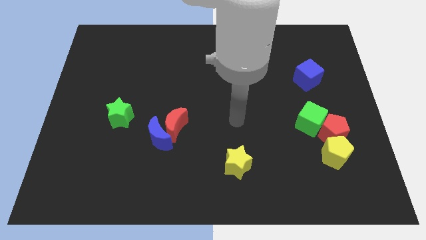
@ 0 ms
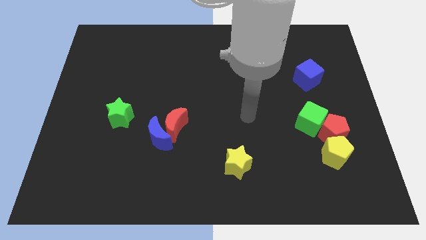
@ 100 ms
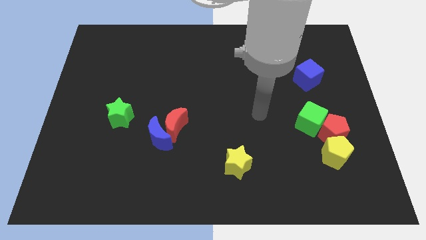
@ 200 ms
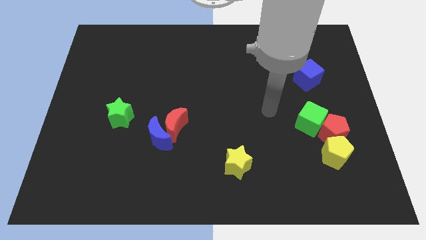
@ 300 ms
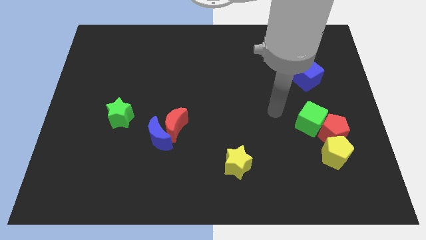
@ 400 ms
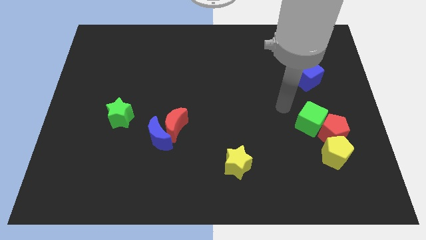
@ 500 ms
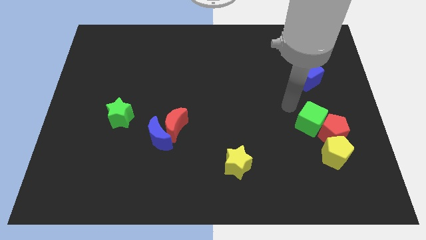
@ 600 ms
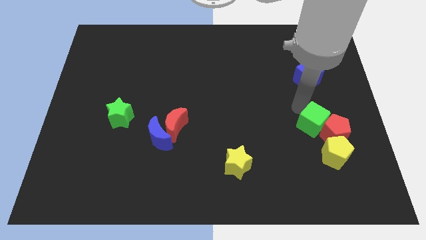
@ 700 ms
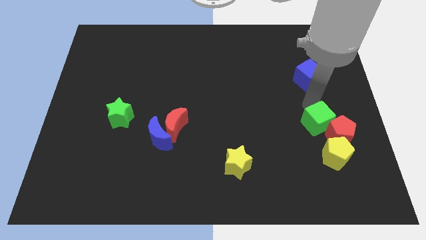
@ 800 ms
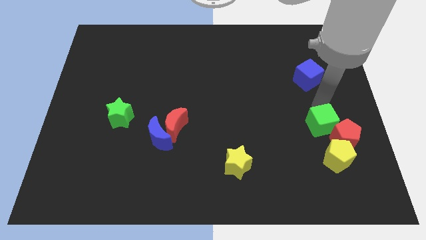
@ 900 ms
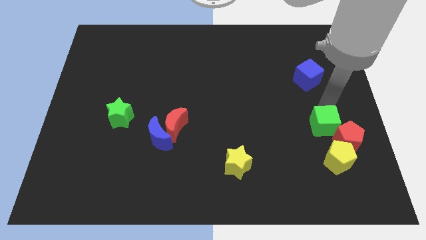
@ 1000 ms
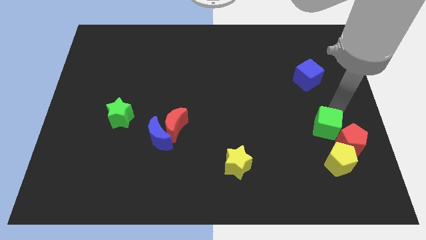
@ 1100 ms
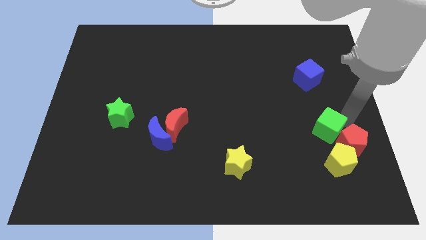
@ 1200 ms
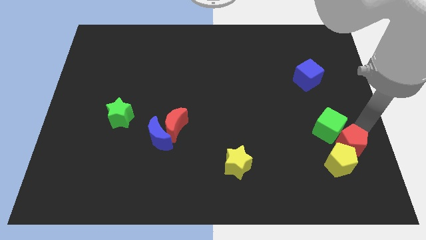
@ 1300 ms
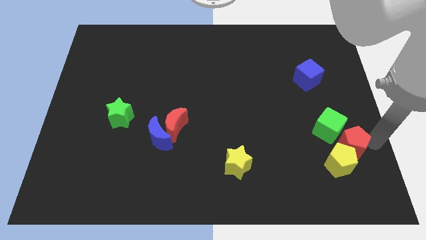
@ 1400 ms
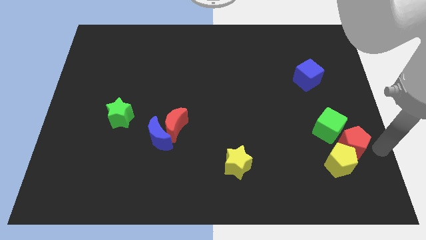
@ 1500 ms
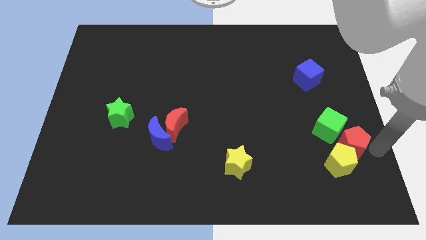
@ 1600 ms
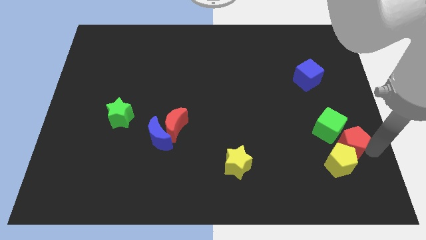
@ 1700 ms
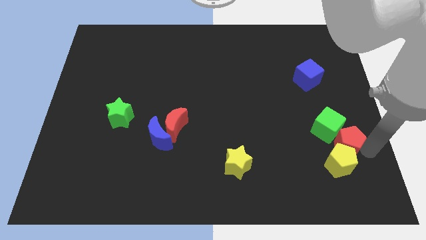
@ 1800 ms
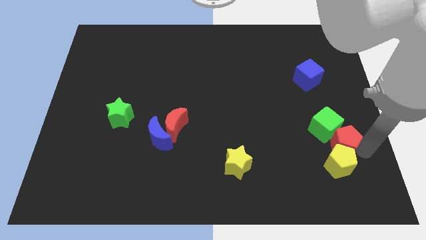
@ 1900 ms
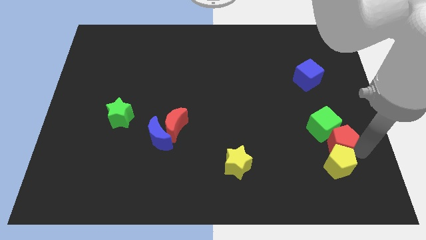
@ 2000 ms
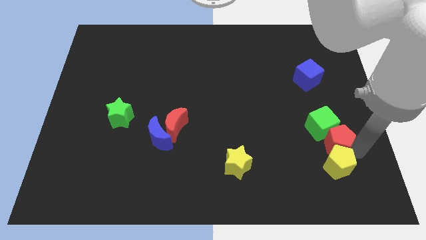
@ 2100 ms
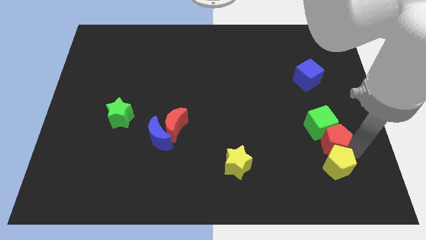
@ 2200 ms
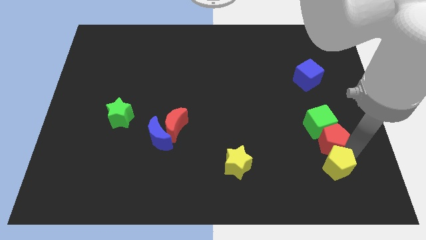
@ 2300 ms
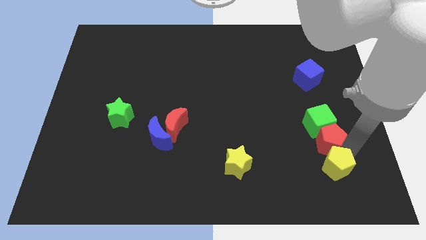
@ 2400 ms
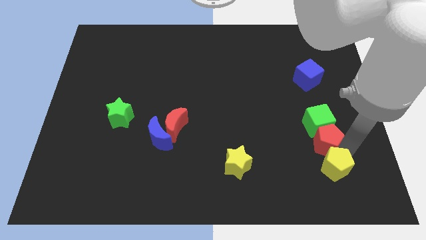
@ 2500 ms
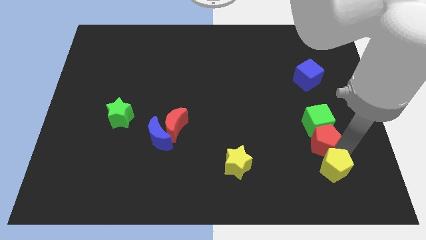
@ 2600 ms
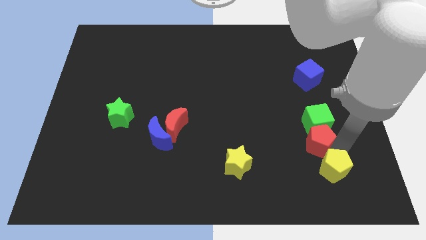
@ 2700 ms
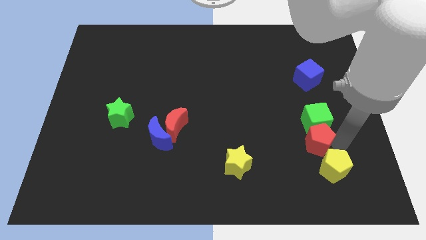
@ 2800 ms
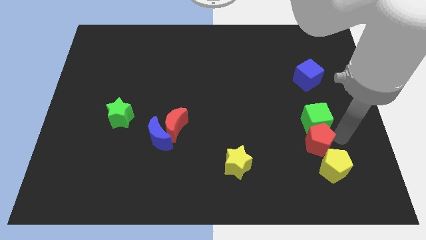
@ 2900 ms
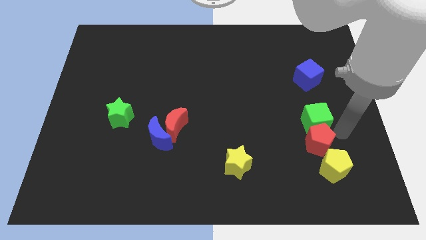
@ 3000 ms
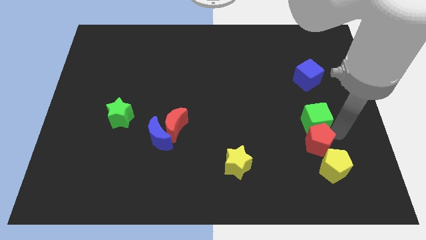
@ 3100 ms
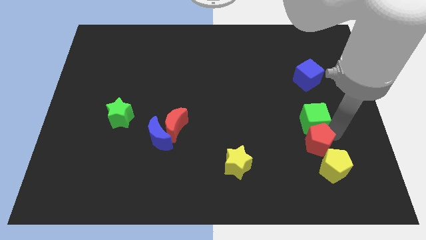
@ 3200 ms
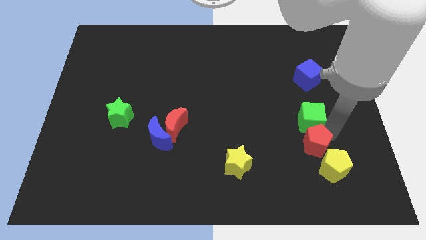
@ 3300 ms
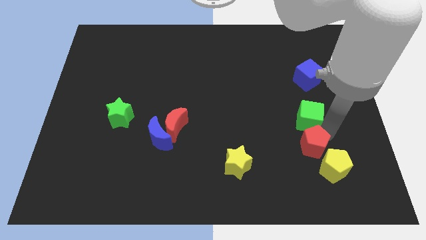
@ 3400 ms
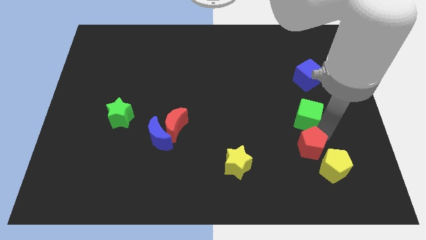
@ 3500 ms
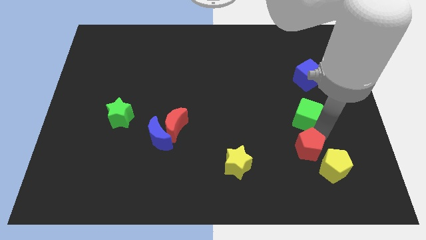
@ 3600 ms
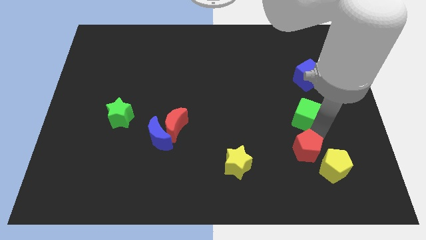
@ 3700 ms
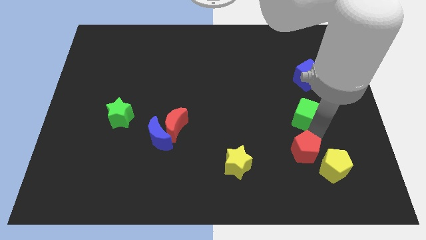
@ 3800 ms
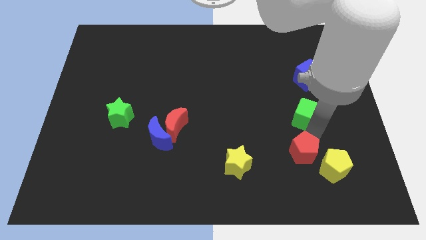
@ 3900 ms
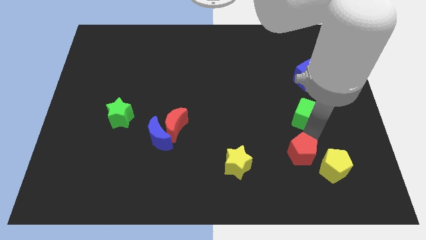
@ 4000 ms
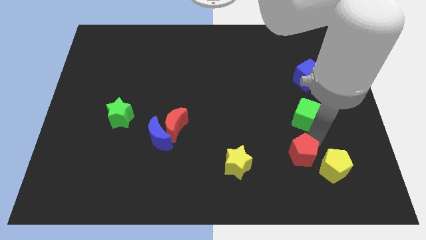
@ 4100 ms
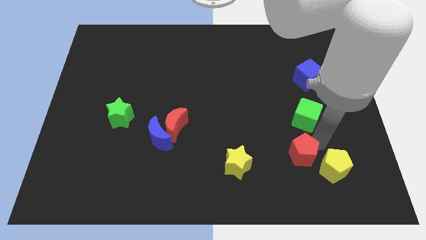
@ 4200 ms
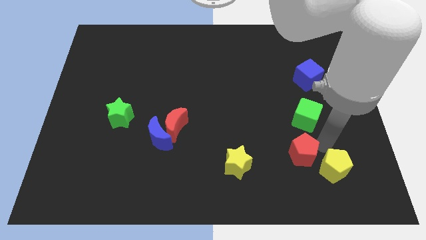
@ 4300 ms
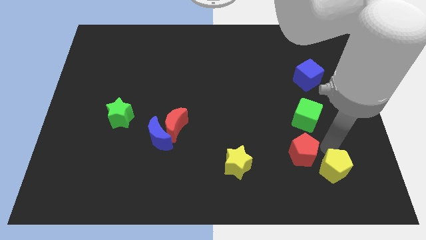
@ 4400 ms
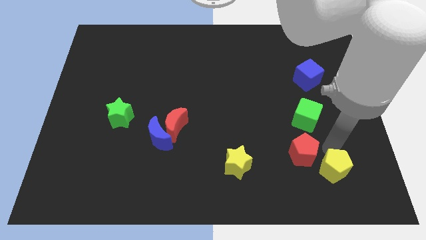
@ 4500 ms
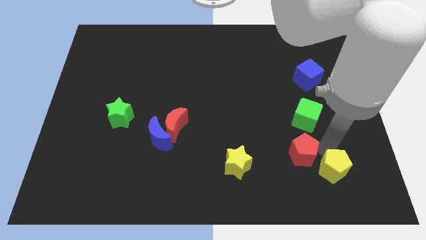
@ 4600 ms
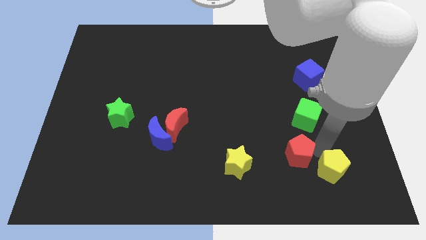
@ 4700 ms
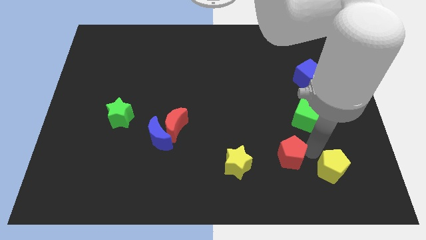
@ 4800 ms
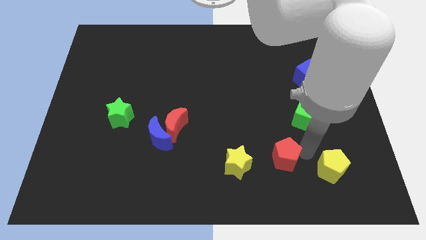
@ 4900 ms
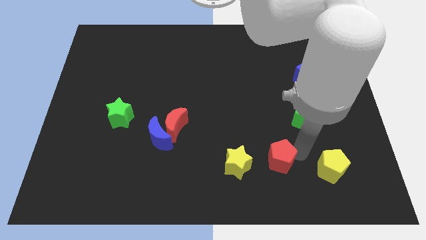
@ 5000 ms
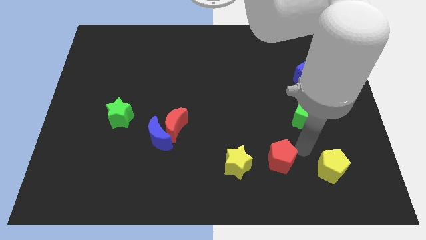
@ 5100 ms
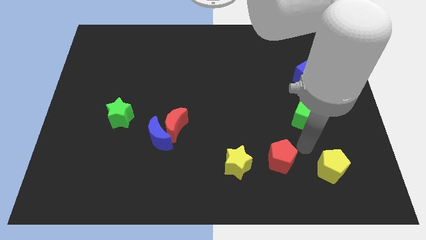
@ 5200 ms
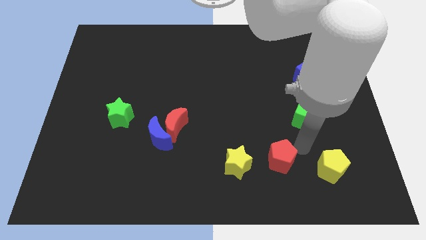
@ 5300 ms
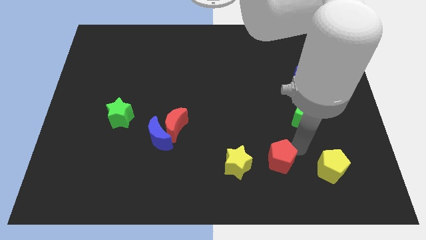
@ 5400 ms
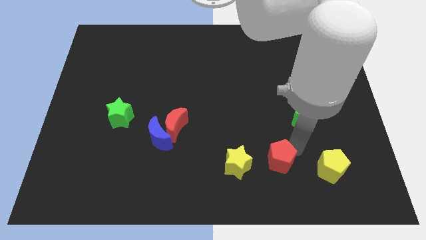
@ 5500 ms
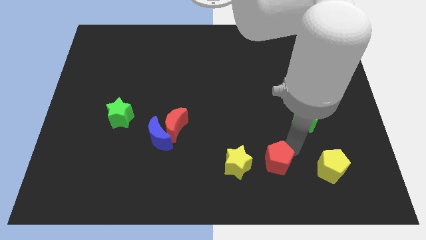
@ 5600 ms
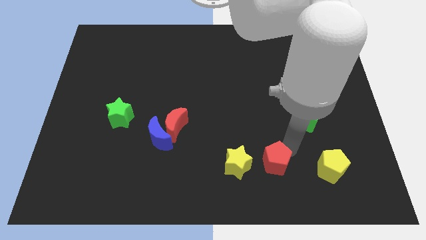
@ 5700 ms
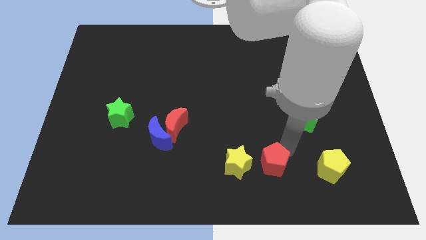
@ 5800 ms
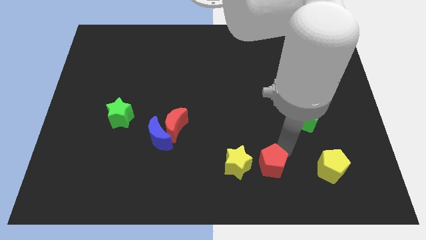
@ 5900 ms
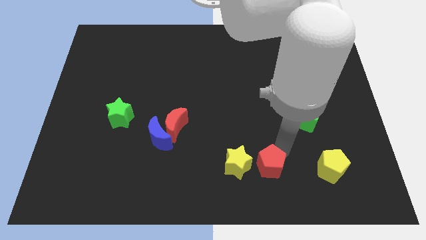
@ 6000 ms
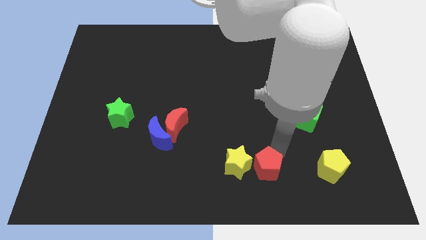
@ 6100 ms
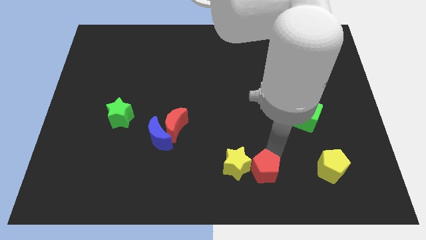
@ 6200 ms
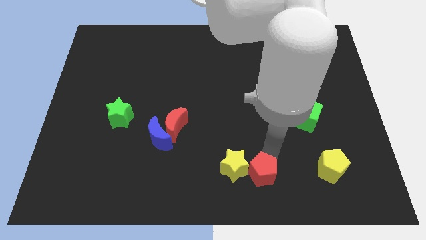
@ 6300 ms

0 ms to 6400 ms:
move the red pentagon to the bottom
